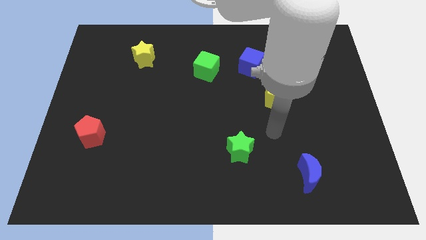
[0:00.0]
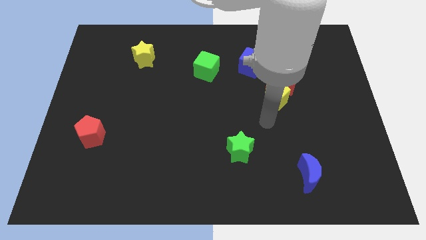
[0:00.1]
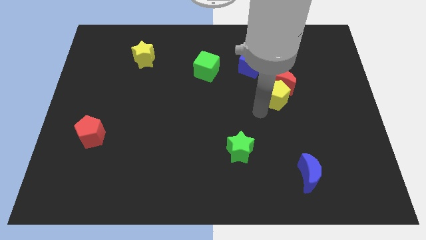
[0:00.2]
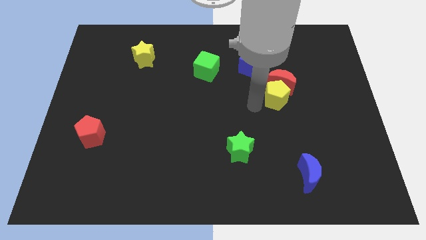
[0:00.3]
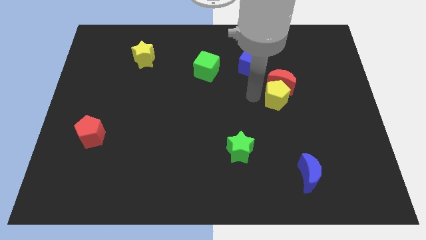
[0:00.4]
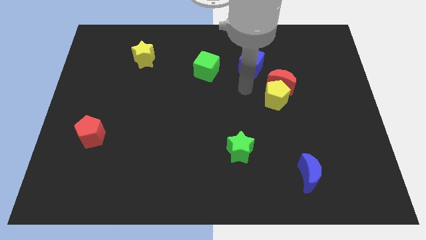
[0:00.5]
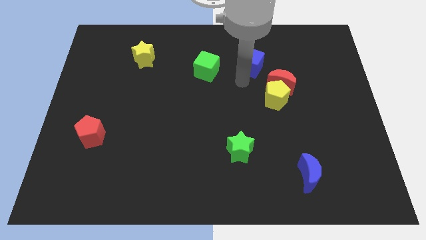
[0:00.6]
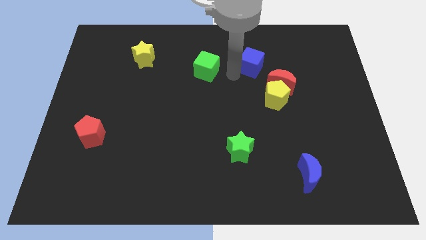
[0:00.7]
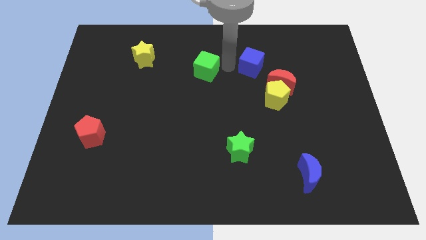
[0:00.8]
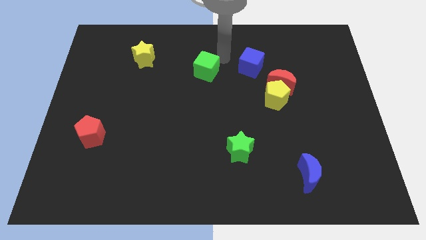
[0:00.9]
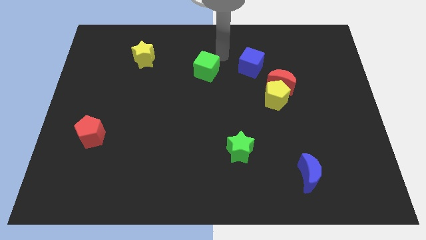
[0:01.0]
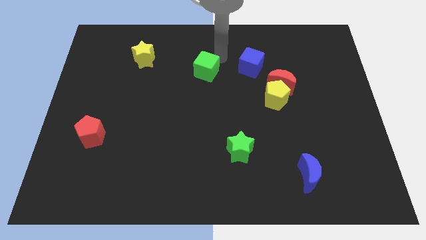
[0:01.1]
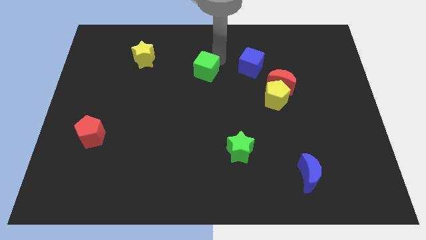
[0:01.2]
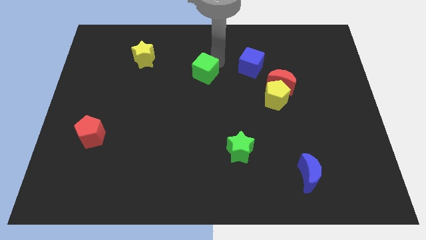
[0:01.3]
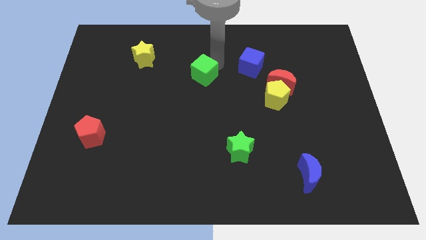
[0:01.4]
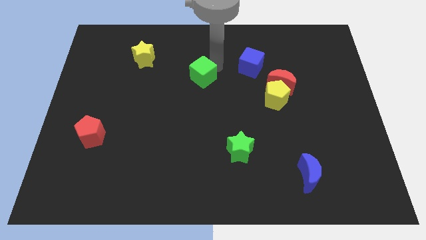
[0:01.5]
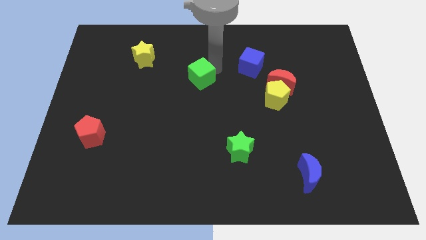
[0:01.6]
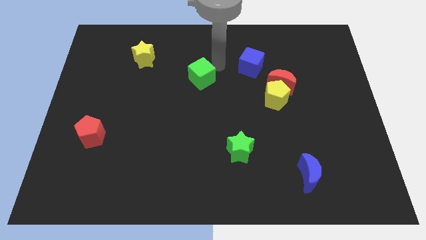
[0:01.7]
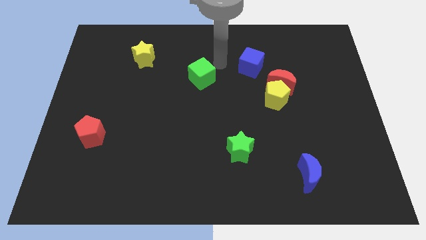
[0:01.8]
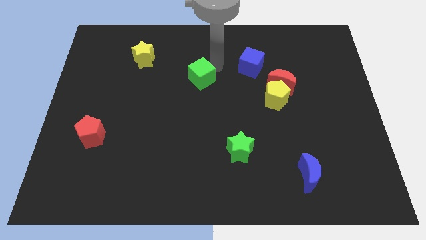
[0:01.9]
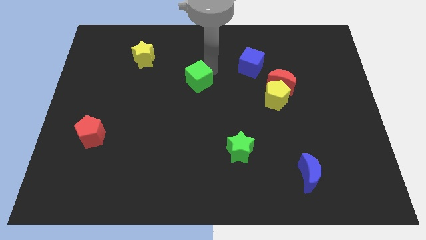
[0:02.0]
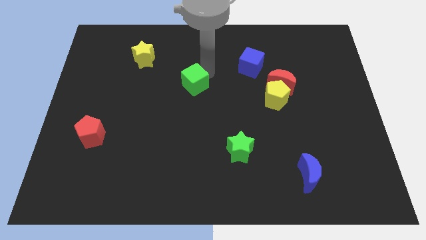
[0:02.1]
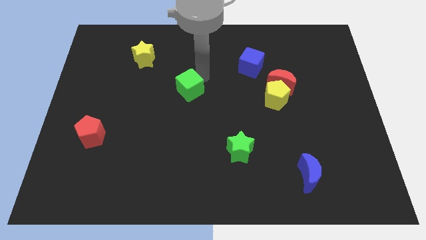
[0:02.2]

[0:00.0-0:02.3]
slightly push the green cube down and then to the left

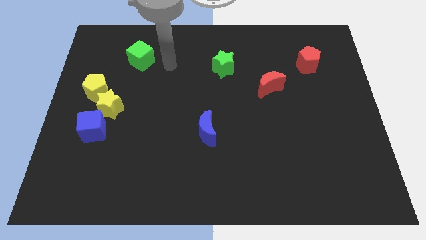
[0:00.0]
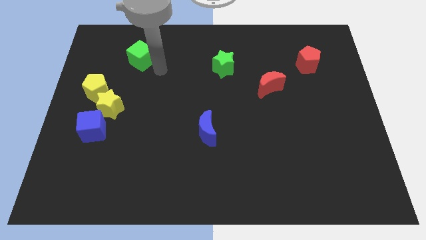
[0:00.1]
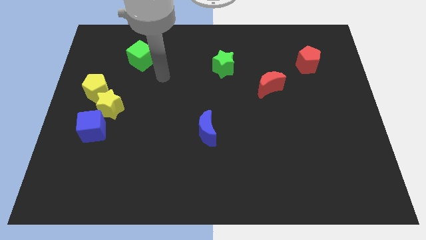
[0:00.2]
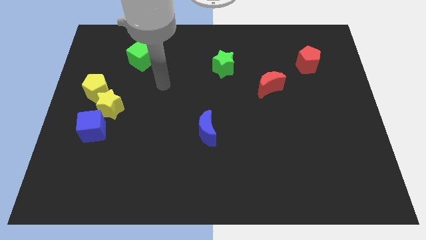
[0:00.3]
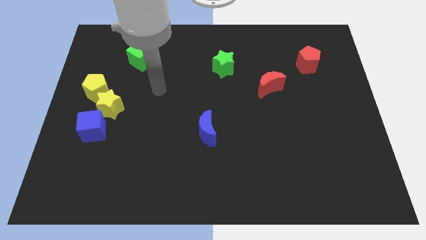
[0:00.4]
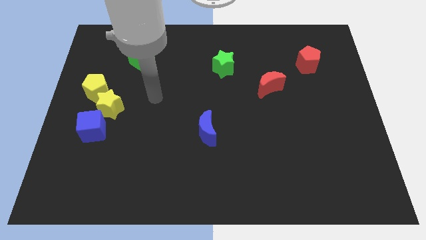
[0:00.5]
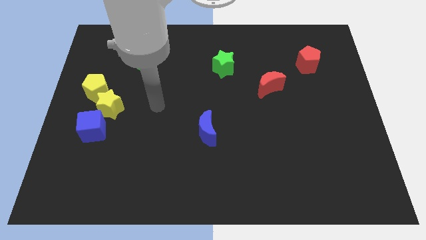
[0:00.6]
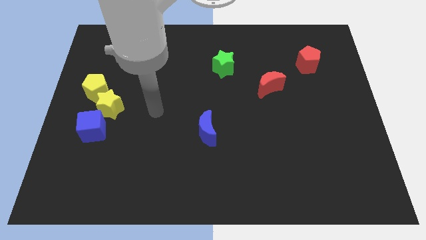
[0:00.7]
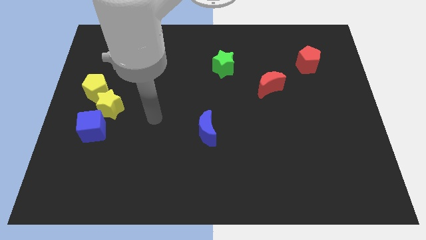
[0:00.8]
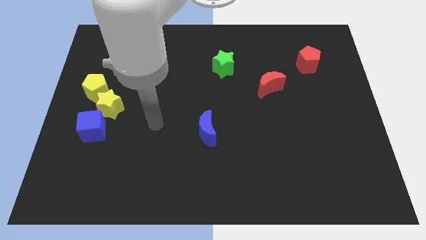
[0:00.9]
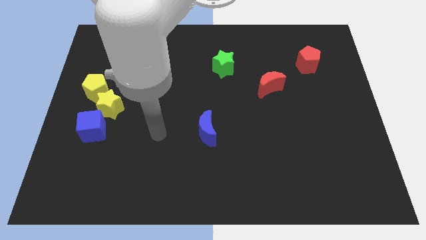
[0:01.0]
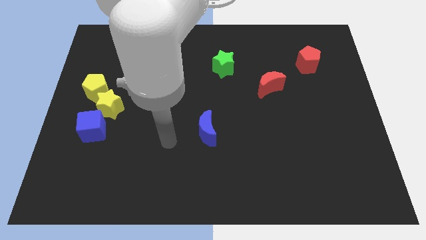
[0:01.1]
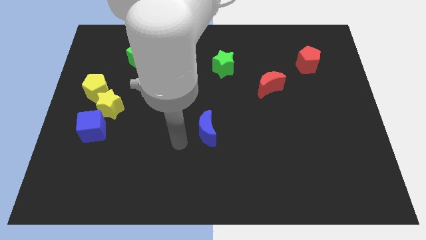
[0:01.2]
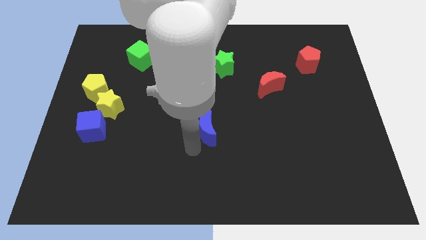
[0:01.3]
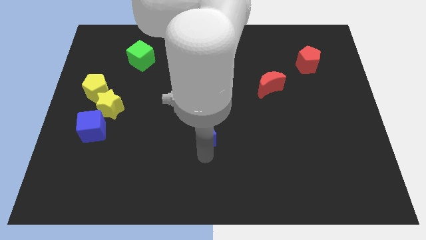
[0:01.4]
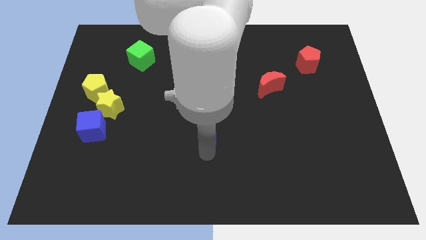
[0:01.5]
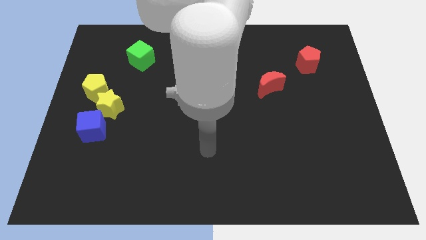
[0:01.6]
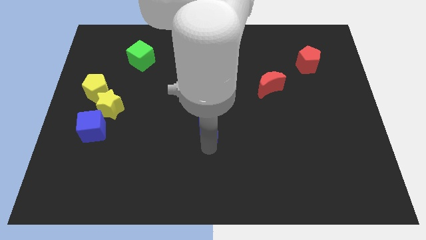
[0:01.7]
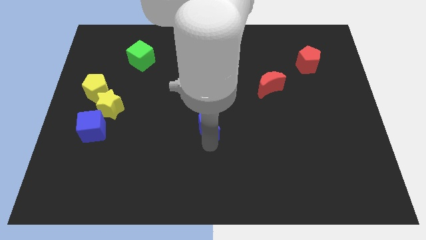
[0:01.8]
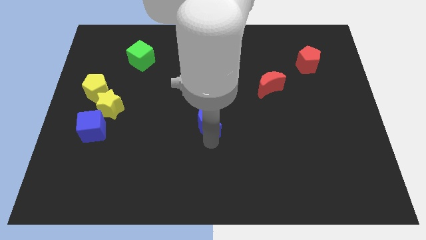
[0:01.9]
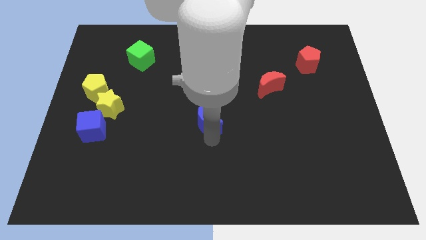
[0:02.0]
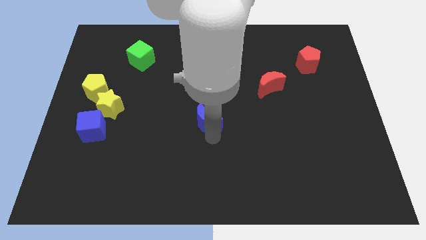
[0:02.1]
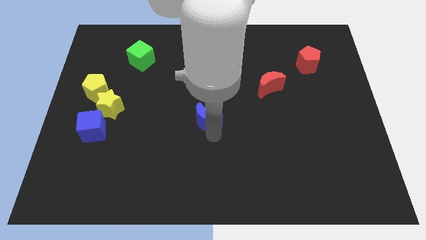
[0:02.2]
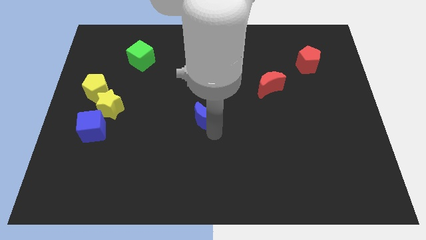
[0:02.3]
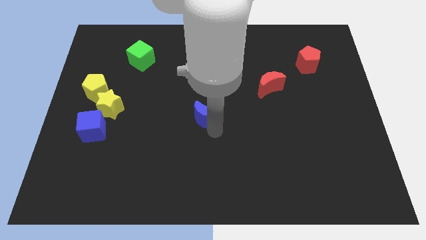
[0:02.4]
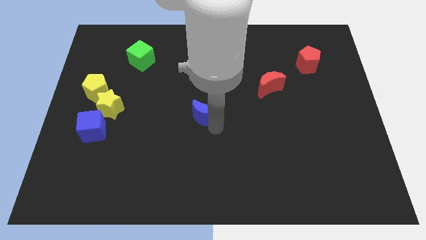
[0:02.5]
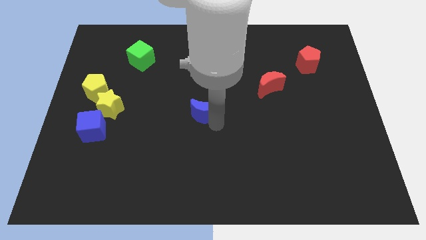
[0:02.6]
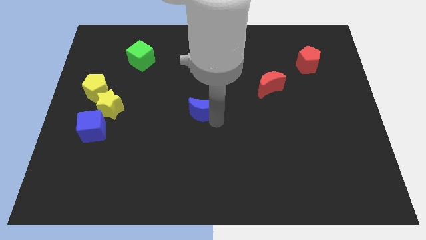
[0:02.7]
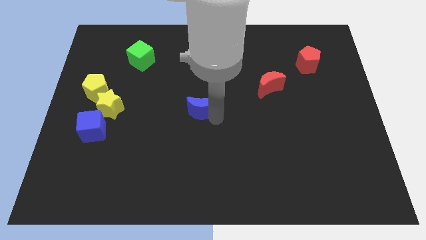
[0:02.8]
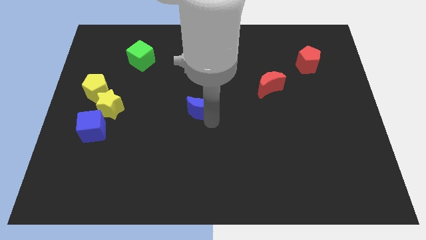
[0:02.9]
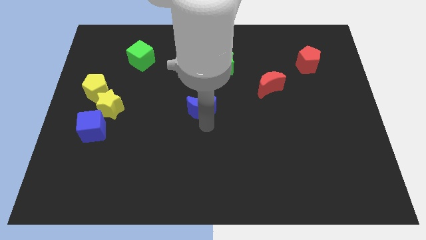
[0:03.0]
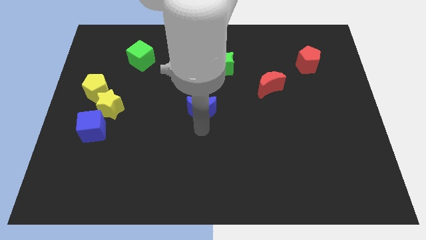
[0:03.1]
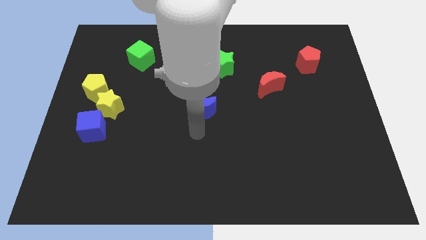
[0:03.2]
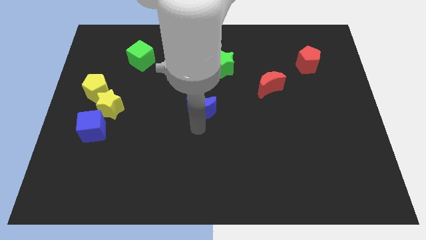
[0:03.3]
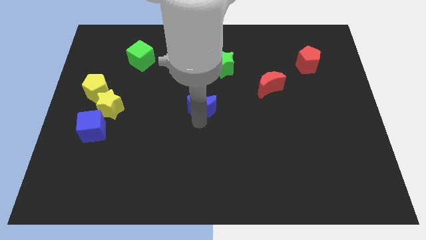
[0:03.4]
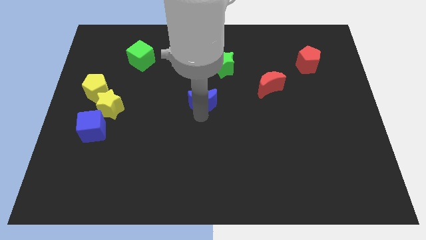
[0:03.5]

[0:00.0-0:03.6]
slightly slide the blue moon upwards

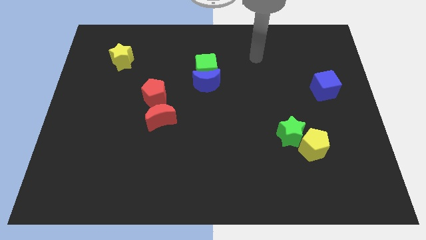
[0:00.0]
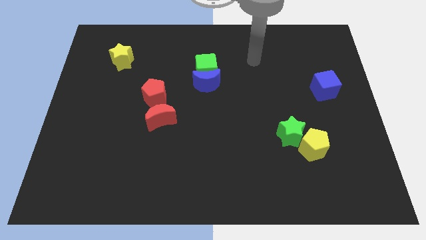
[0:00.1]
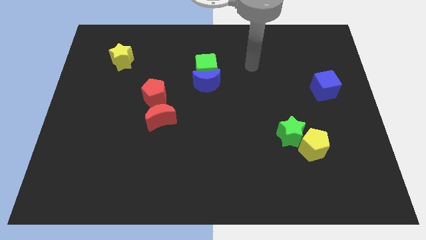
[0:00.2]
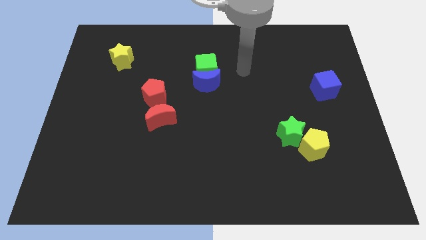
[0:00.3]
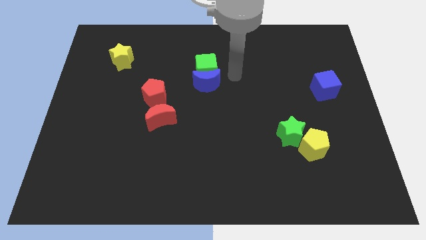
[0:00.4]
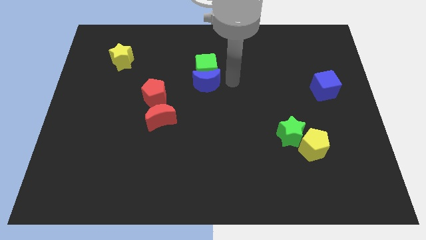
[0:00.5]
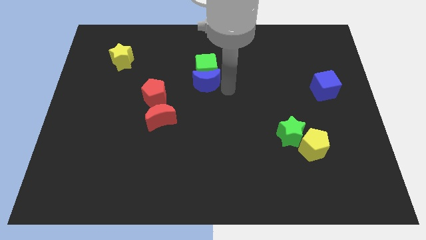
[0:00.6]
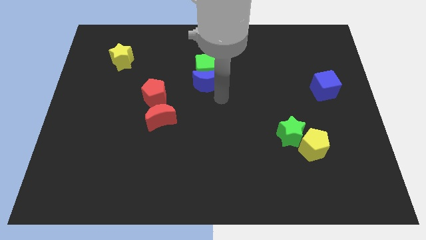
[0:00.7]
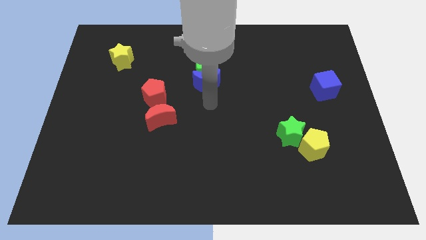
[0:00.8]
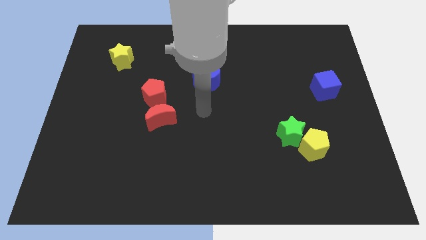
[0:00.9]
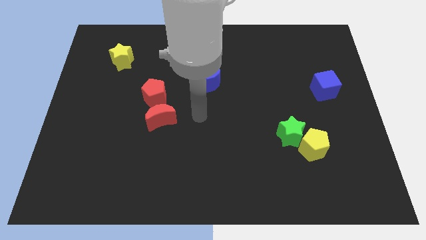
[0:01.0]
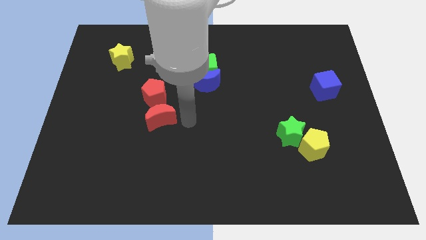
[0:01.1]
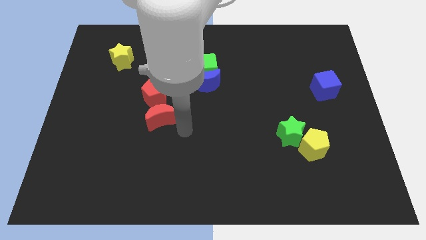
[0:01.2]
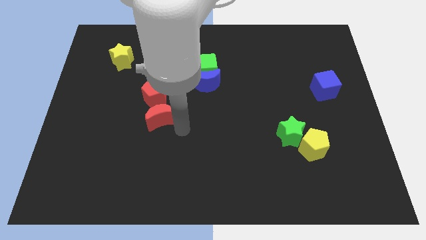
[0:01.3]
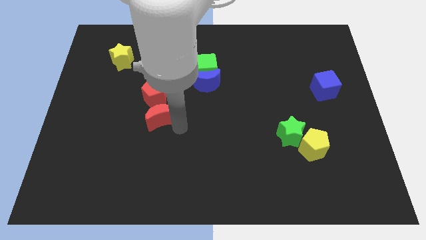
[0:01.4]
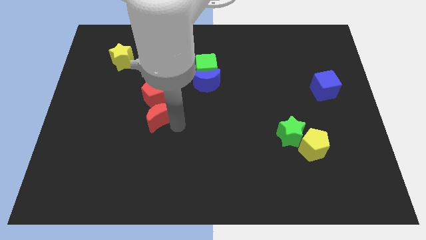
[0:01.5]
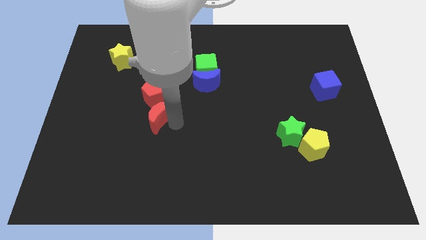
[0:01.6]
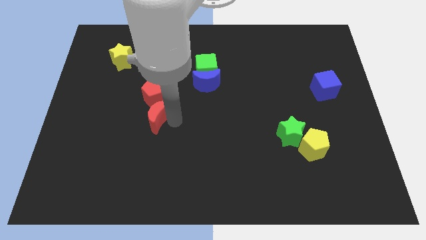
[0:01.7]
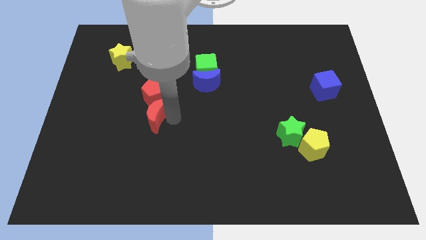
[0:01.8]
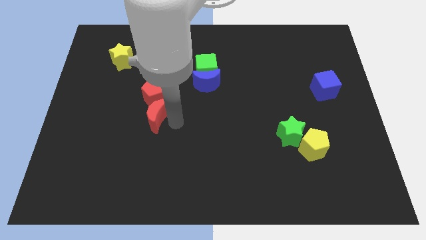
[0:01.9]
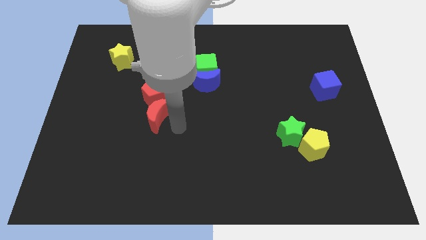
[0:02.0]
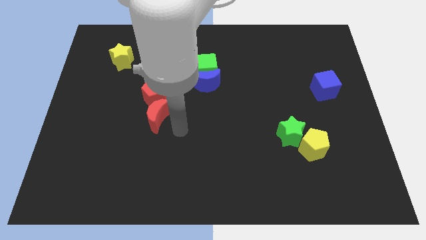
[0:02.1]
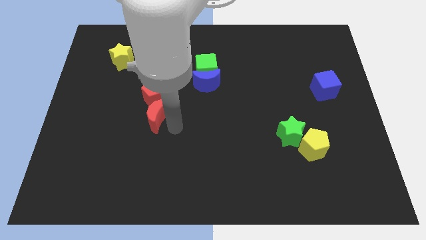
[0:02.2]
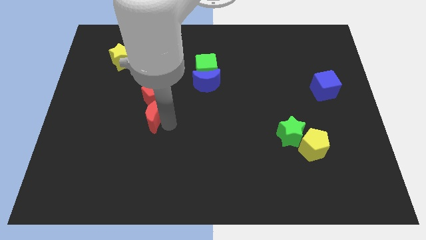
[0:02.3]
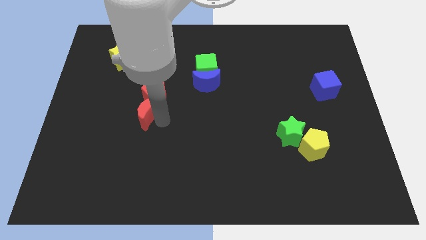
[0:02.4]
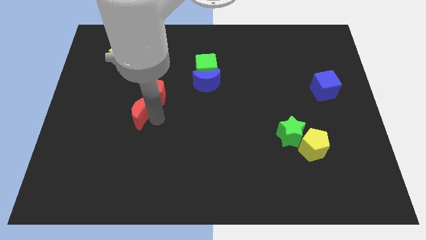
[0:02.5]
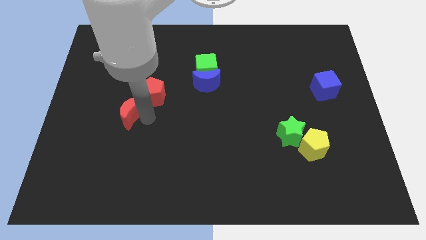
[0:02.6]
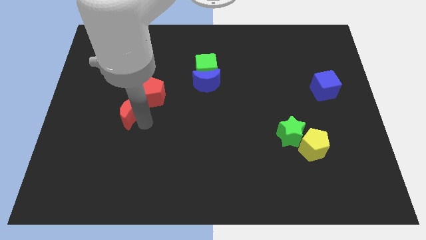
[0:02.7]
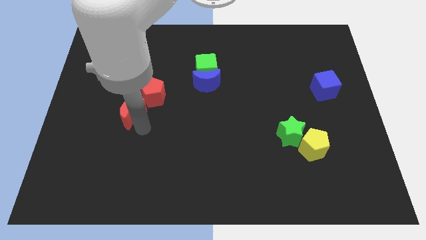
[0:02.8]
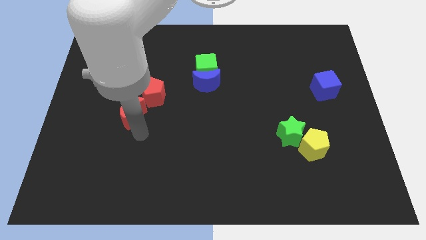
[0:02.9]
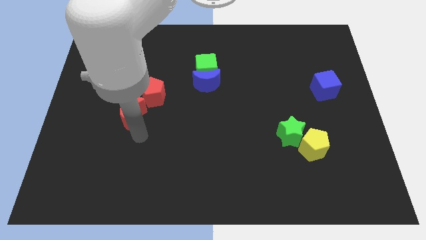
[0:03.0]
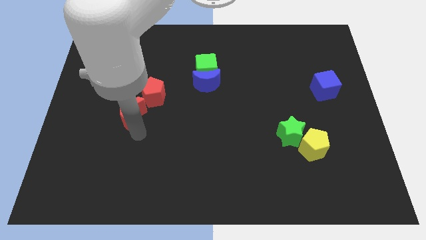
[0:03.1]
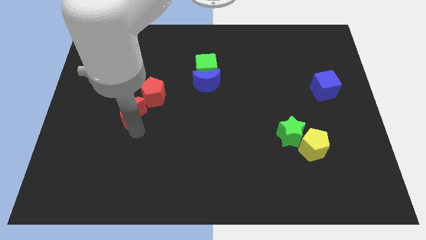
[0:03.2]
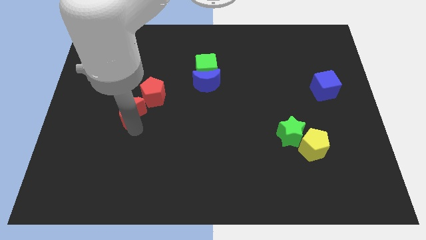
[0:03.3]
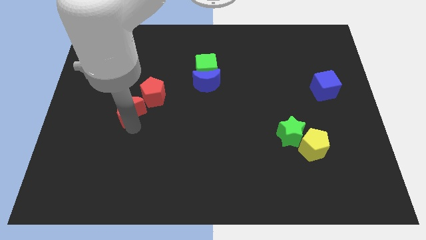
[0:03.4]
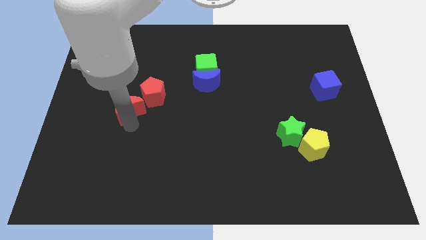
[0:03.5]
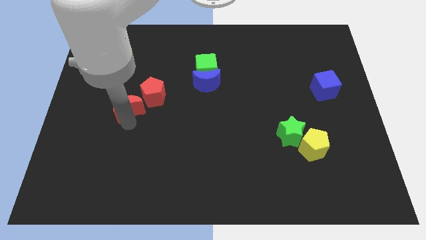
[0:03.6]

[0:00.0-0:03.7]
slide the red moon a bit up and to the left diagonally
